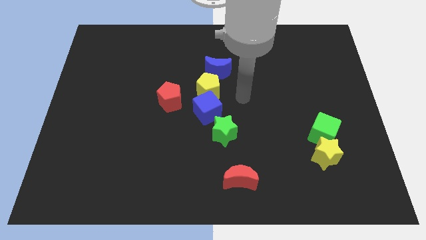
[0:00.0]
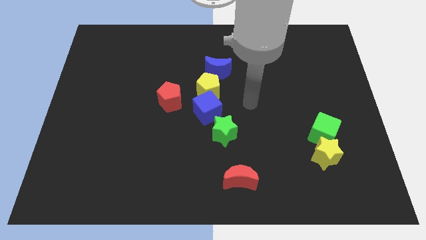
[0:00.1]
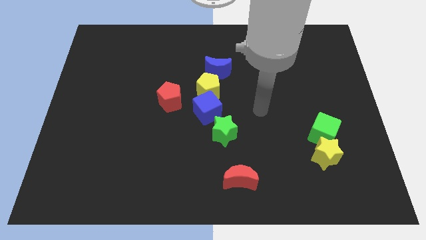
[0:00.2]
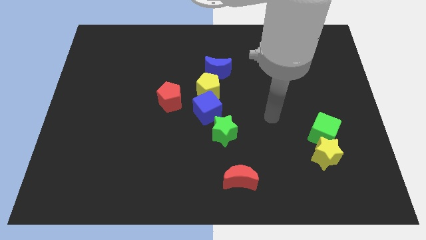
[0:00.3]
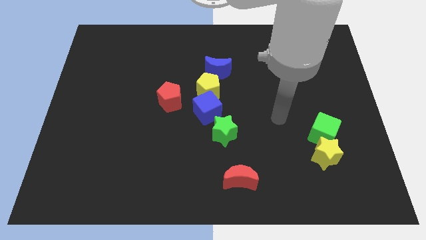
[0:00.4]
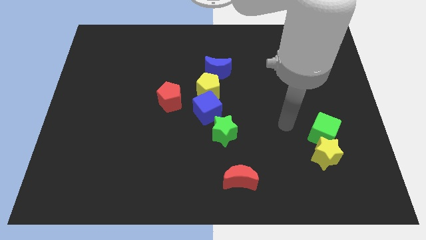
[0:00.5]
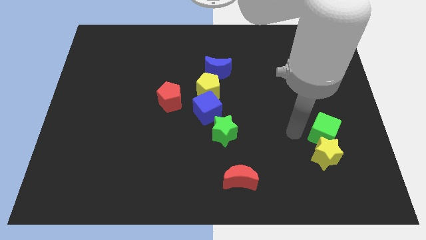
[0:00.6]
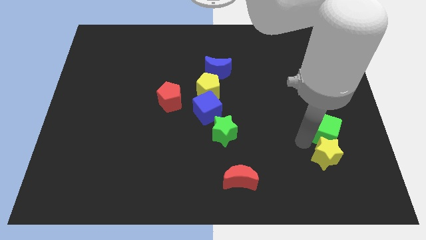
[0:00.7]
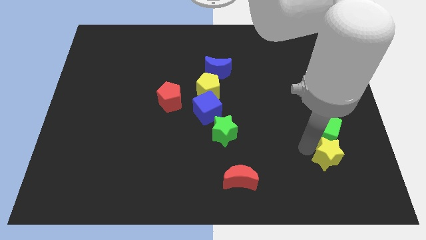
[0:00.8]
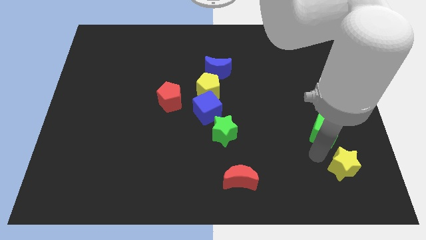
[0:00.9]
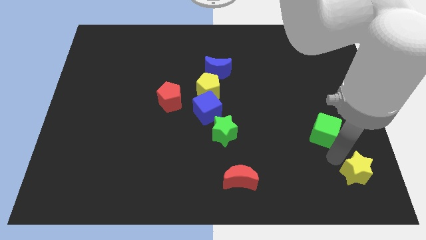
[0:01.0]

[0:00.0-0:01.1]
separate the green cube from the yellow star

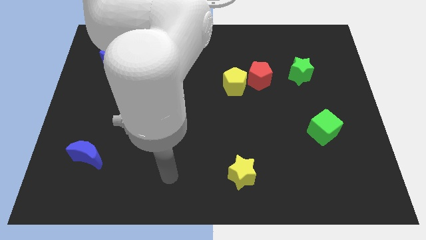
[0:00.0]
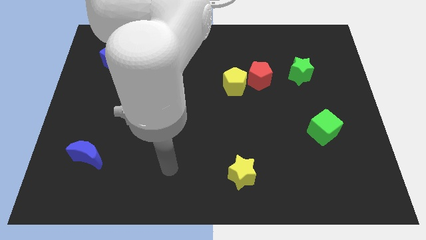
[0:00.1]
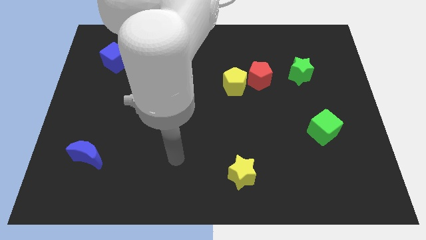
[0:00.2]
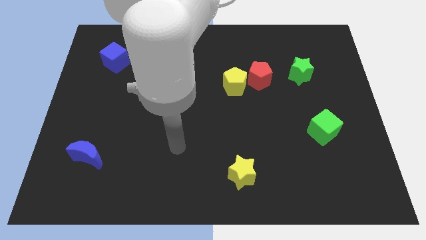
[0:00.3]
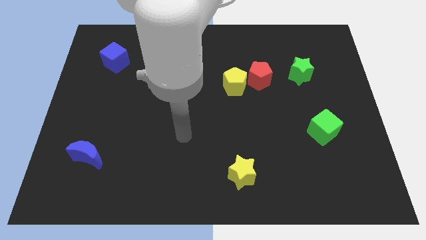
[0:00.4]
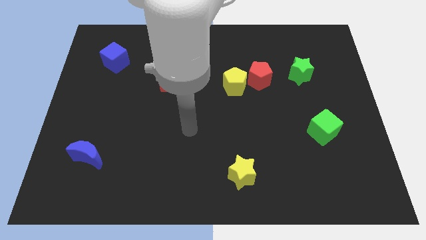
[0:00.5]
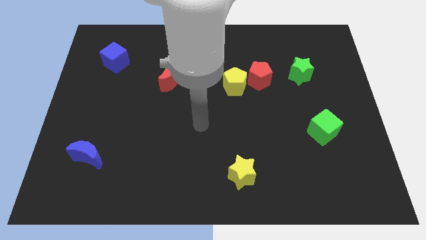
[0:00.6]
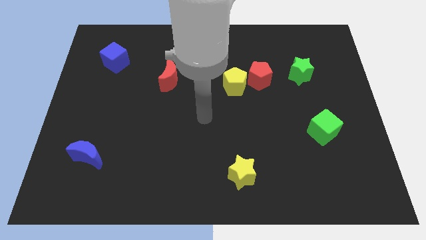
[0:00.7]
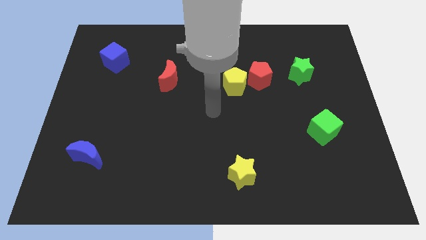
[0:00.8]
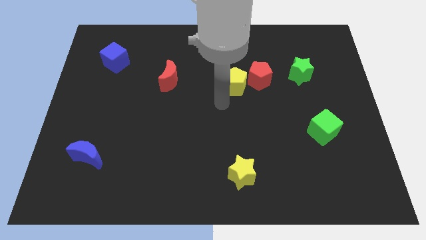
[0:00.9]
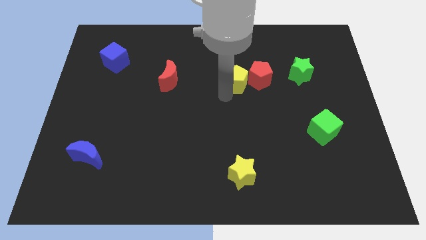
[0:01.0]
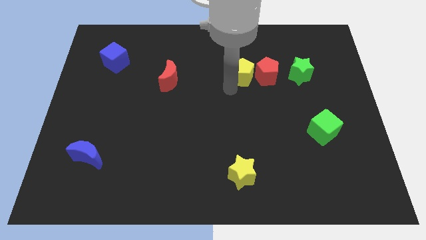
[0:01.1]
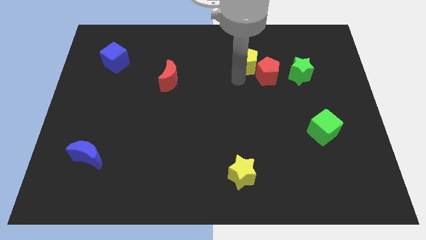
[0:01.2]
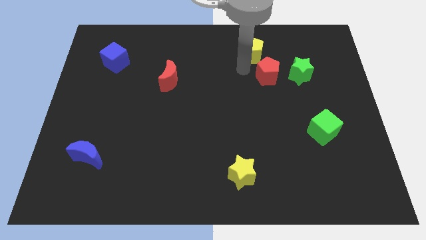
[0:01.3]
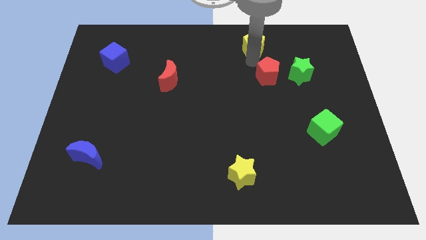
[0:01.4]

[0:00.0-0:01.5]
pull the red pentagon apart from the yellow pentagon

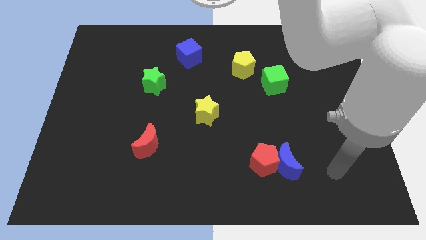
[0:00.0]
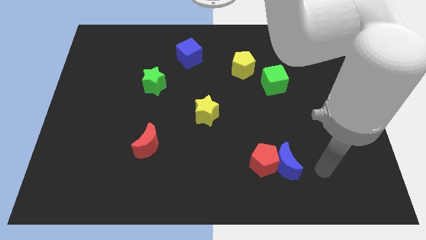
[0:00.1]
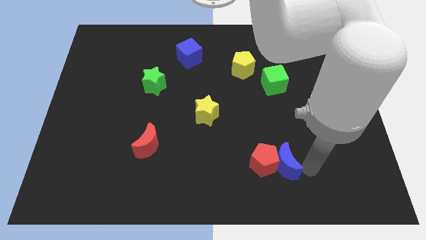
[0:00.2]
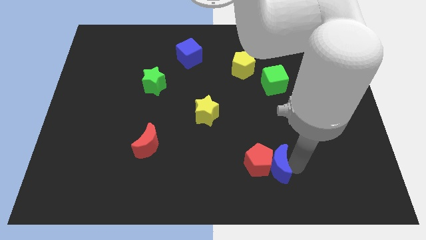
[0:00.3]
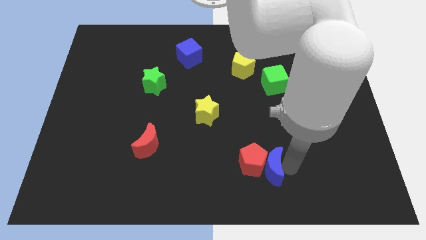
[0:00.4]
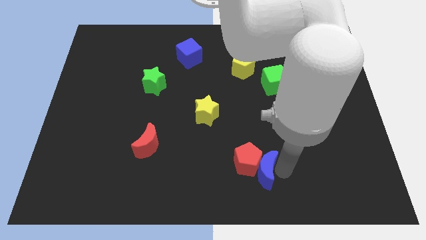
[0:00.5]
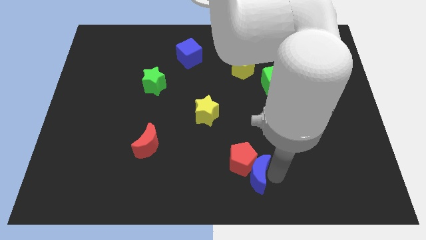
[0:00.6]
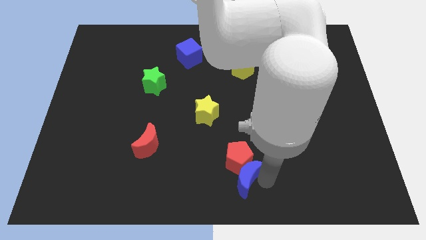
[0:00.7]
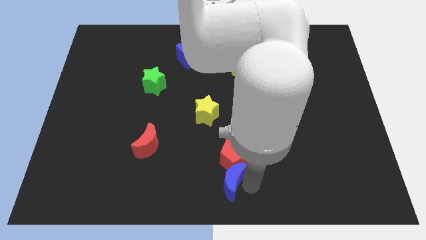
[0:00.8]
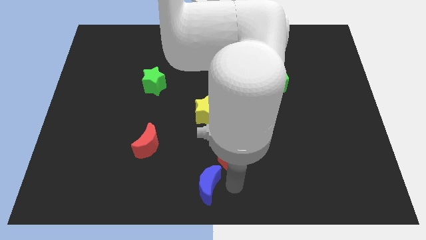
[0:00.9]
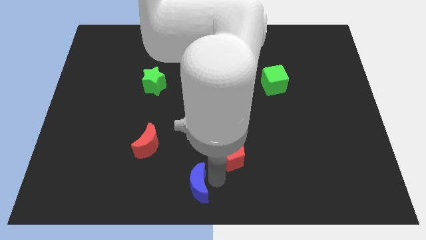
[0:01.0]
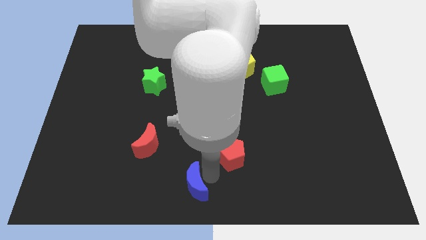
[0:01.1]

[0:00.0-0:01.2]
move the red pentagon away from the blue moon

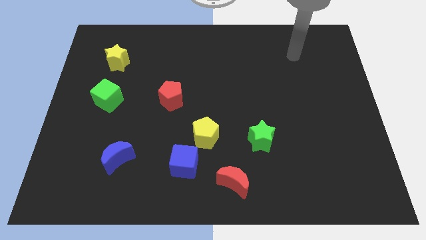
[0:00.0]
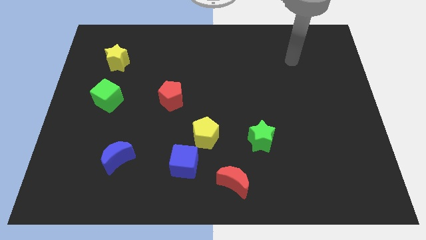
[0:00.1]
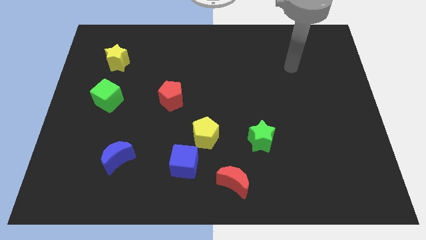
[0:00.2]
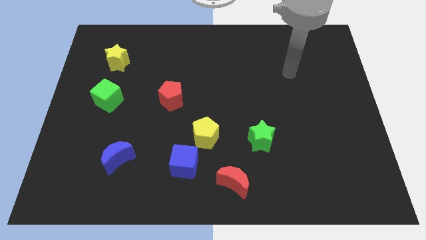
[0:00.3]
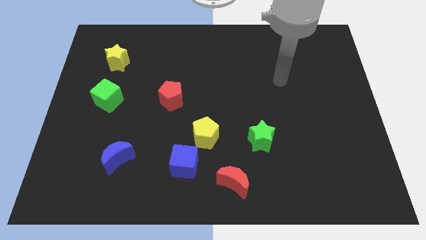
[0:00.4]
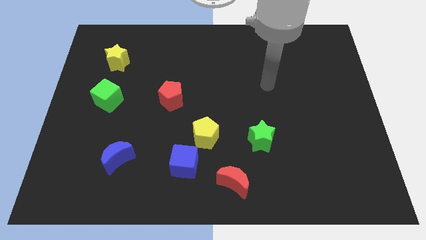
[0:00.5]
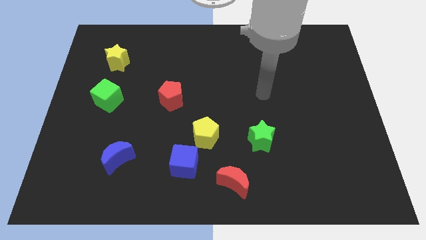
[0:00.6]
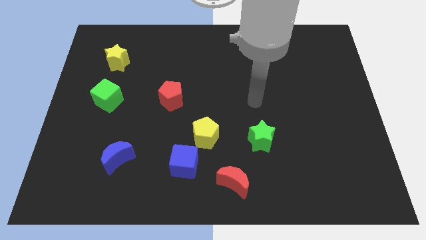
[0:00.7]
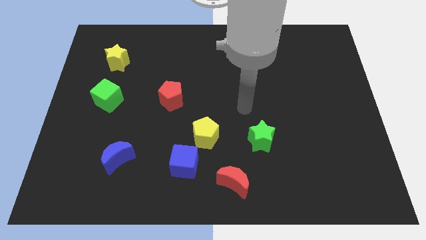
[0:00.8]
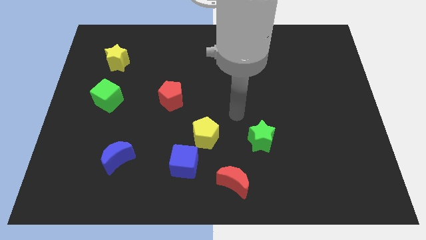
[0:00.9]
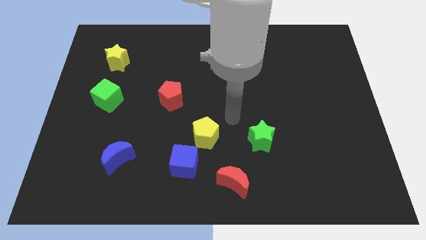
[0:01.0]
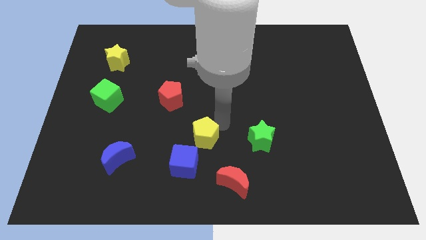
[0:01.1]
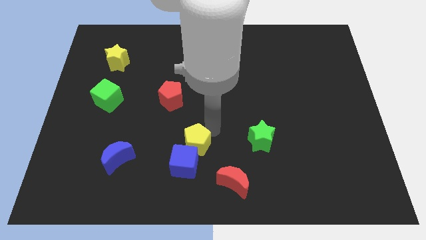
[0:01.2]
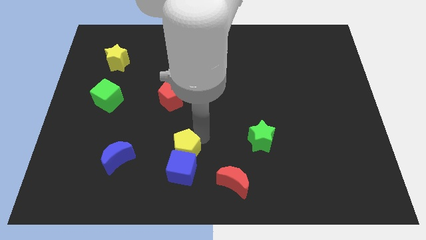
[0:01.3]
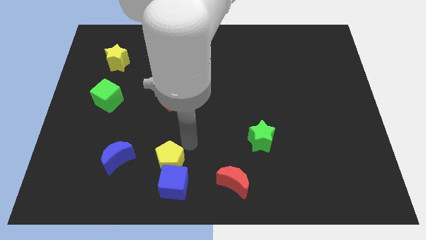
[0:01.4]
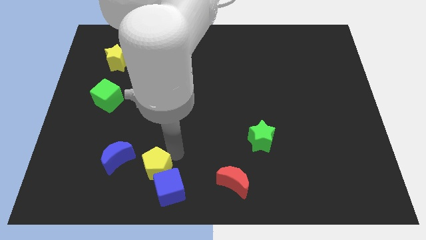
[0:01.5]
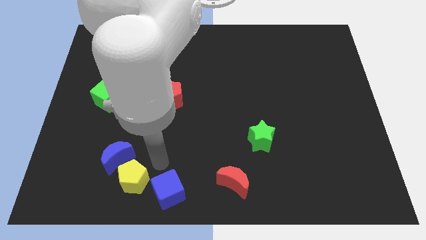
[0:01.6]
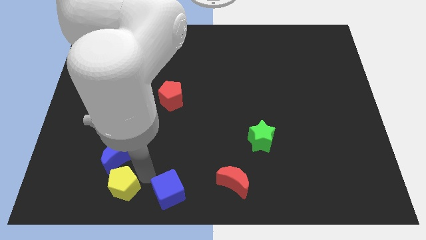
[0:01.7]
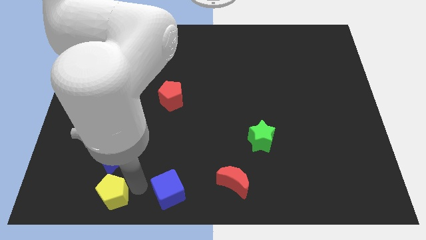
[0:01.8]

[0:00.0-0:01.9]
separate the blue cube from the yellow pentagon

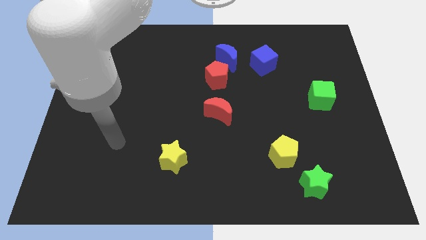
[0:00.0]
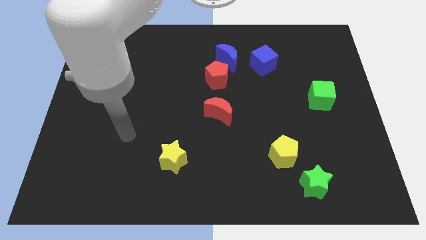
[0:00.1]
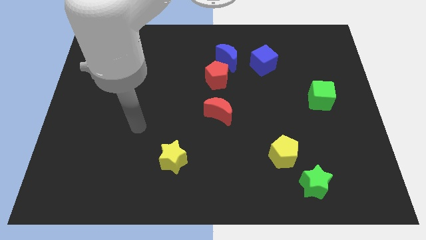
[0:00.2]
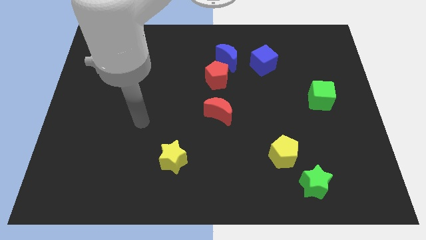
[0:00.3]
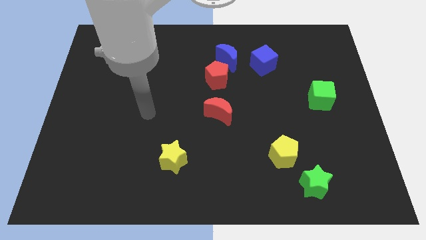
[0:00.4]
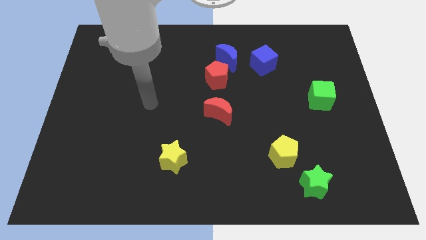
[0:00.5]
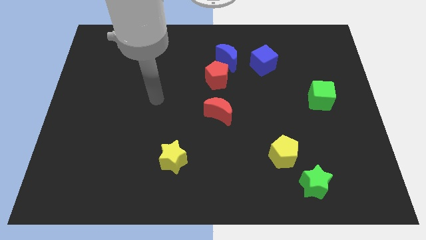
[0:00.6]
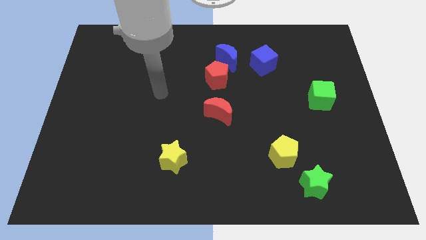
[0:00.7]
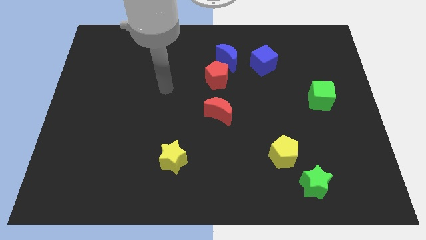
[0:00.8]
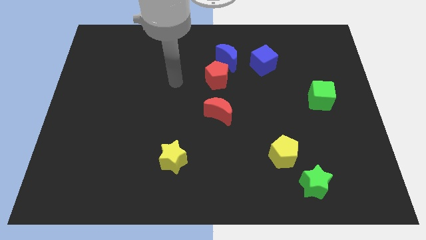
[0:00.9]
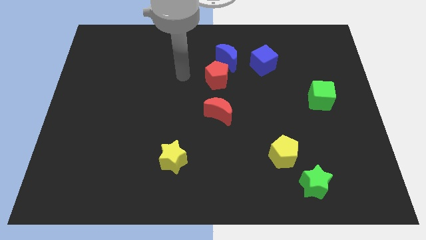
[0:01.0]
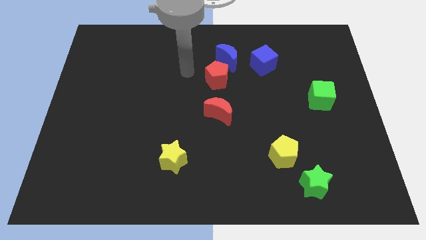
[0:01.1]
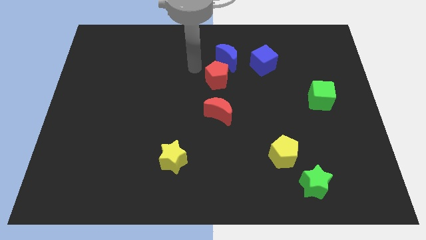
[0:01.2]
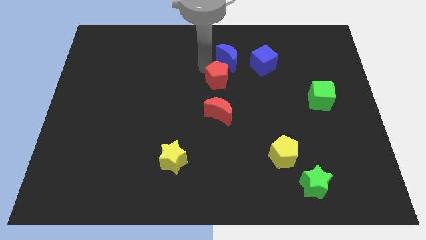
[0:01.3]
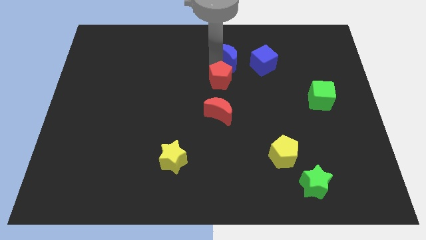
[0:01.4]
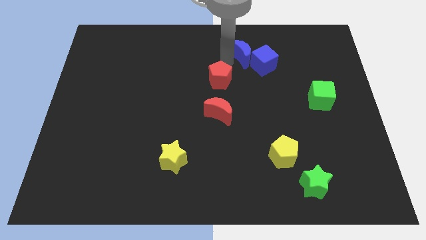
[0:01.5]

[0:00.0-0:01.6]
separate the red pentagon from the blue moon

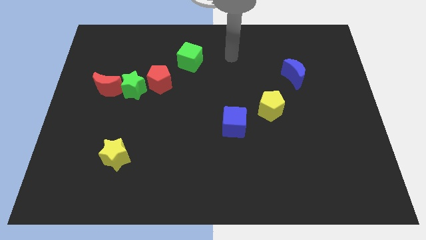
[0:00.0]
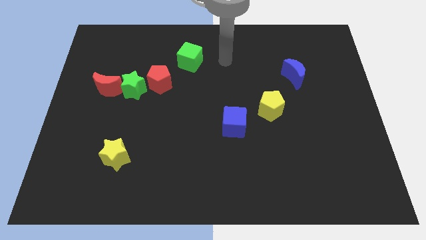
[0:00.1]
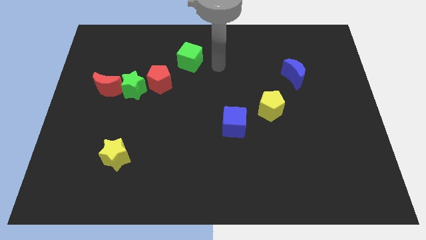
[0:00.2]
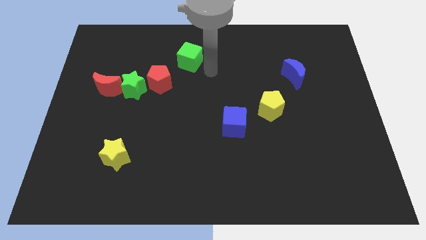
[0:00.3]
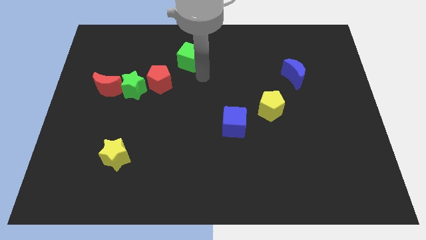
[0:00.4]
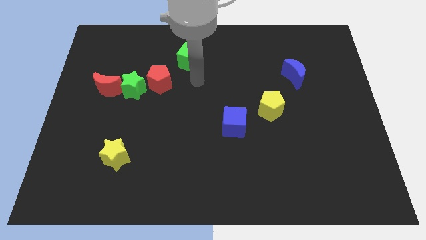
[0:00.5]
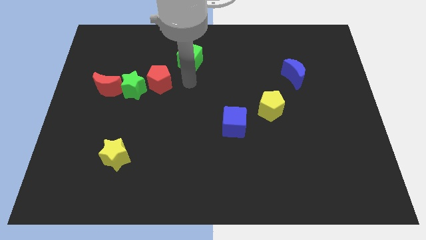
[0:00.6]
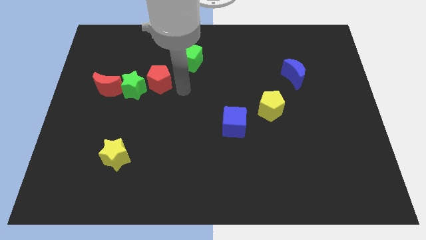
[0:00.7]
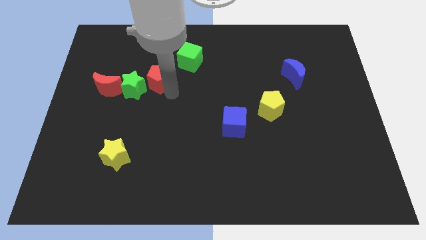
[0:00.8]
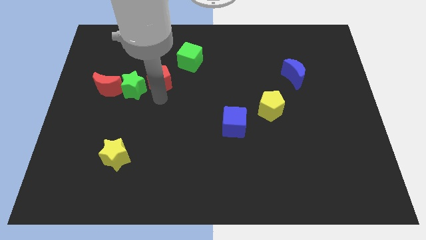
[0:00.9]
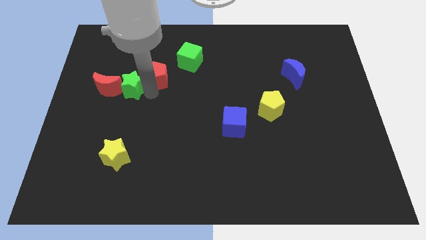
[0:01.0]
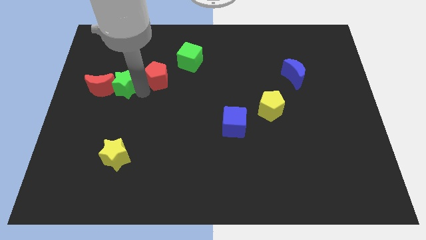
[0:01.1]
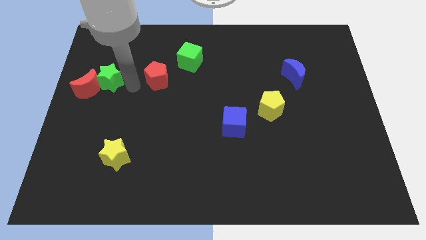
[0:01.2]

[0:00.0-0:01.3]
pull the red pentagon apart from the green star

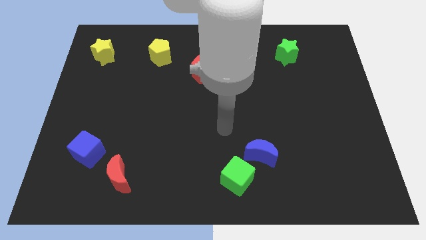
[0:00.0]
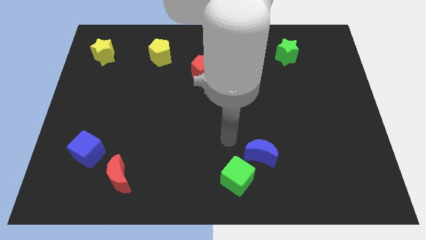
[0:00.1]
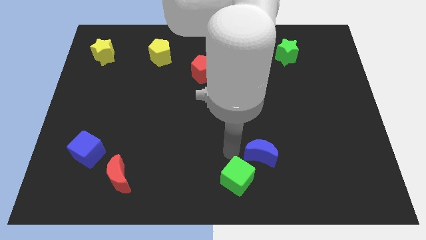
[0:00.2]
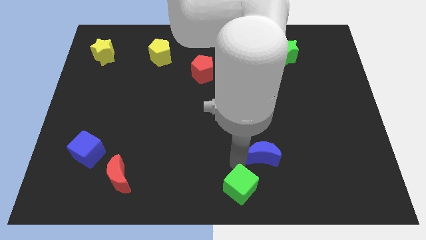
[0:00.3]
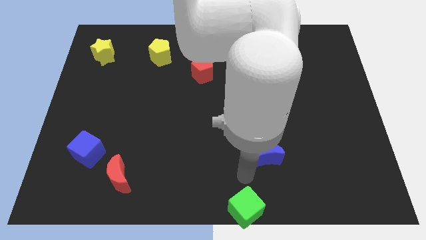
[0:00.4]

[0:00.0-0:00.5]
pull the blue moon apart from the green cube

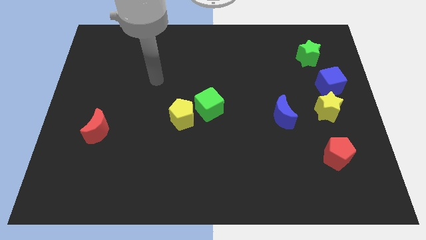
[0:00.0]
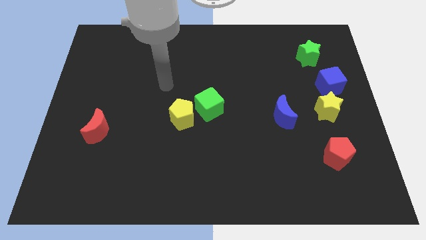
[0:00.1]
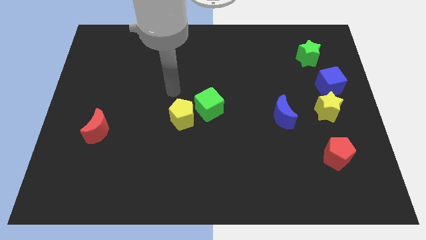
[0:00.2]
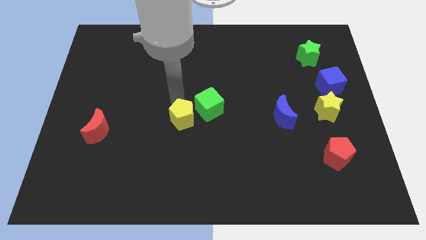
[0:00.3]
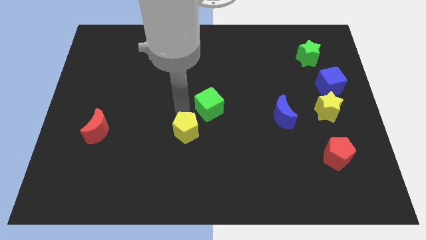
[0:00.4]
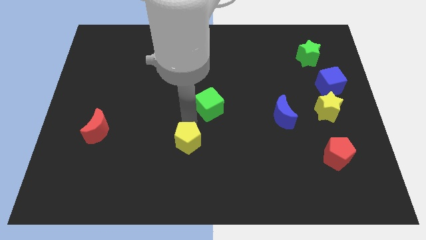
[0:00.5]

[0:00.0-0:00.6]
pull the green cube apart from the yellow pentagon
